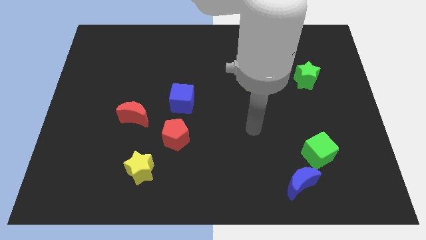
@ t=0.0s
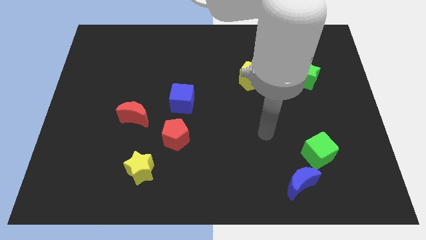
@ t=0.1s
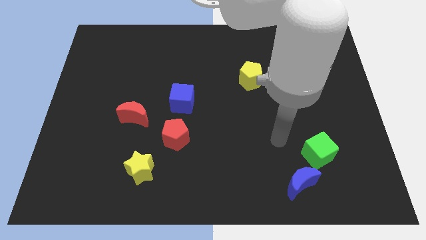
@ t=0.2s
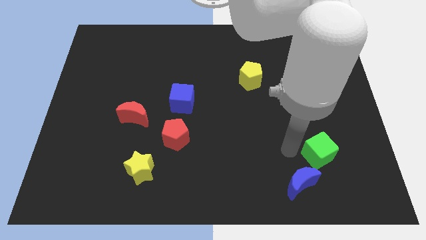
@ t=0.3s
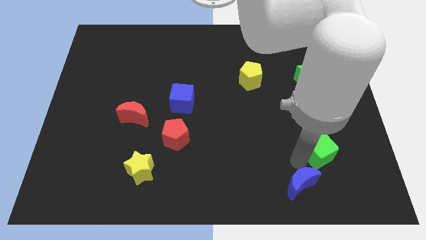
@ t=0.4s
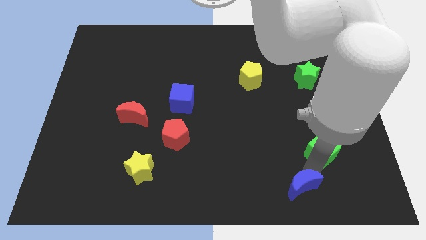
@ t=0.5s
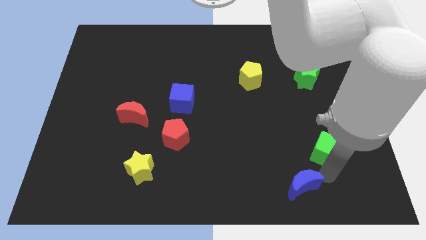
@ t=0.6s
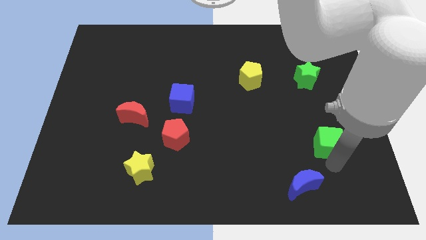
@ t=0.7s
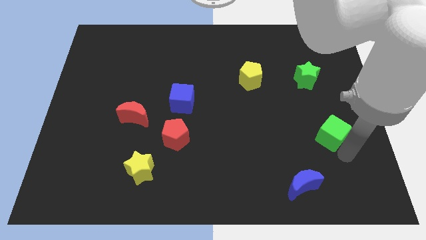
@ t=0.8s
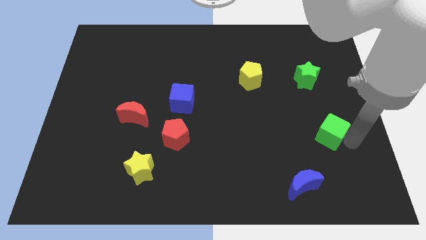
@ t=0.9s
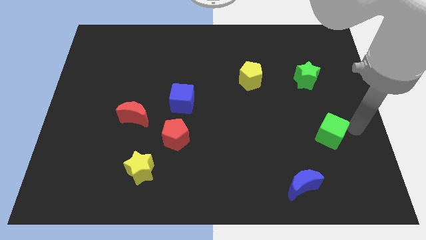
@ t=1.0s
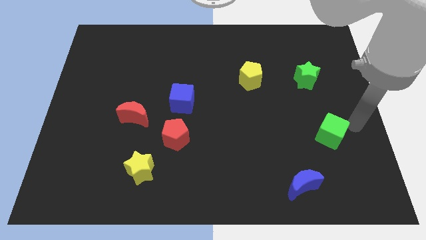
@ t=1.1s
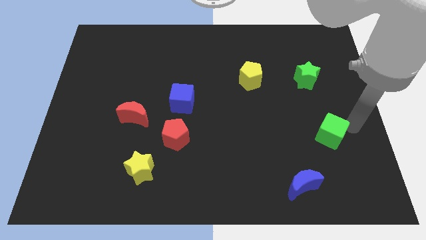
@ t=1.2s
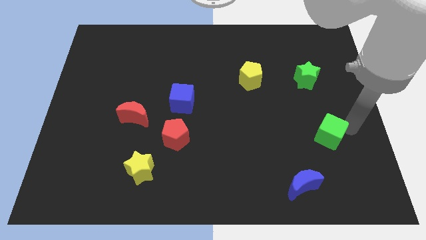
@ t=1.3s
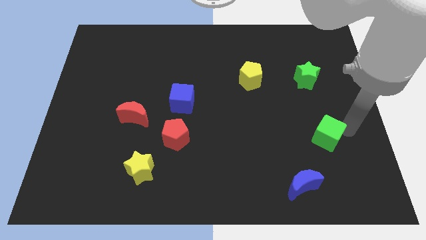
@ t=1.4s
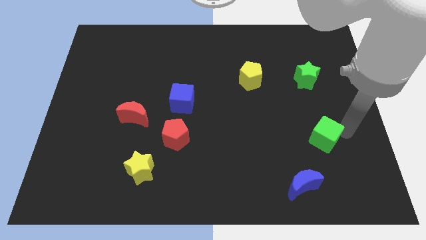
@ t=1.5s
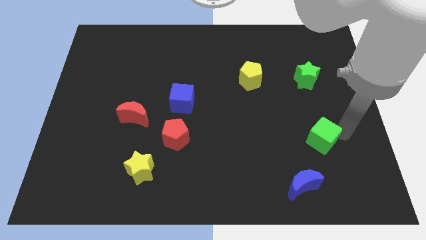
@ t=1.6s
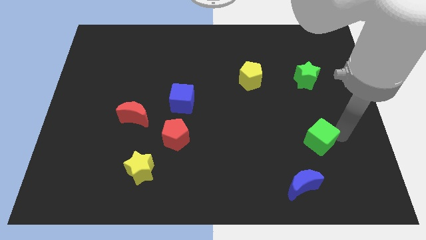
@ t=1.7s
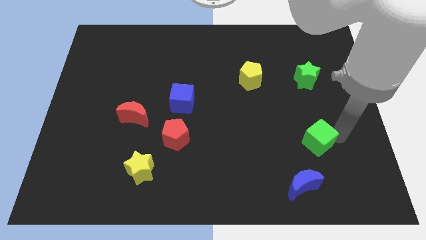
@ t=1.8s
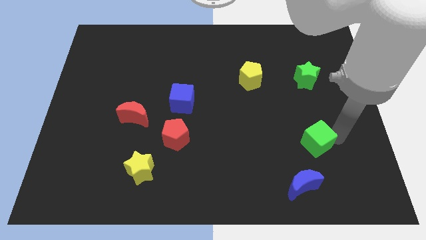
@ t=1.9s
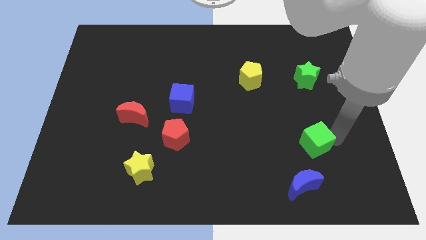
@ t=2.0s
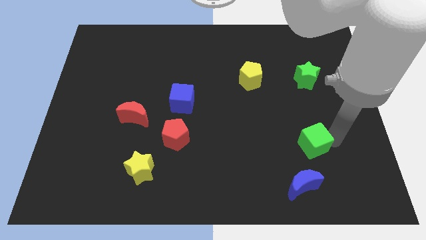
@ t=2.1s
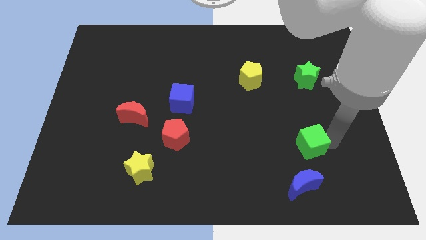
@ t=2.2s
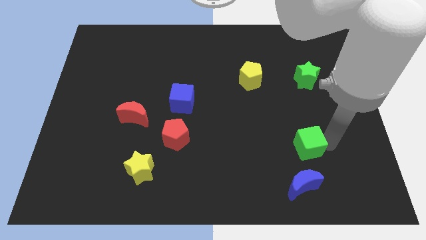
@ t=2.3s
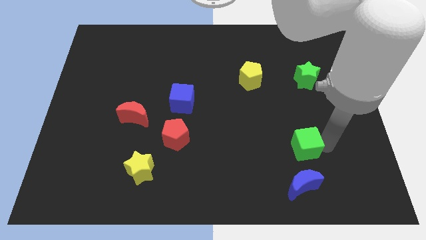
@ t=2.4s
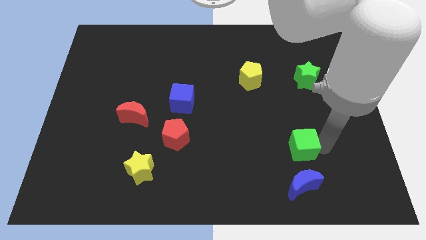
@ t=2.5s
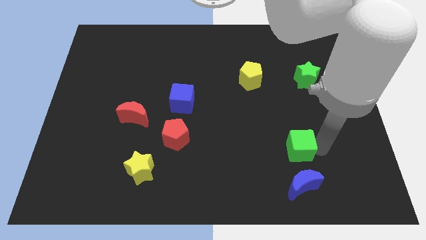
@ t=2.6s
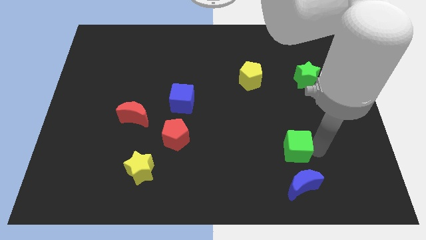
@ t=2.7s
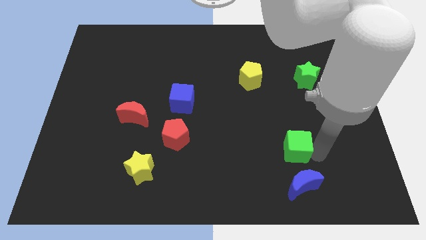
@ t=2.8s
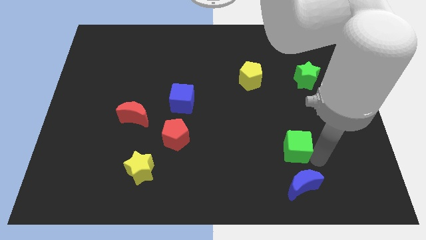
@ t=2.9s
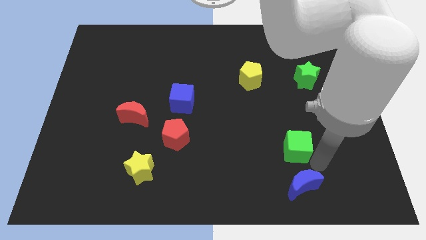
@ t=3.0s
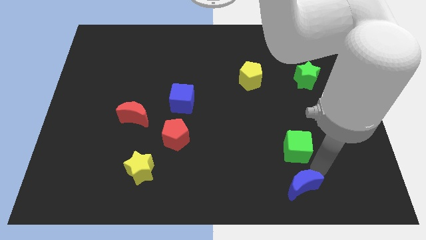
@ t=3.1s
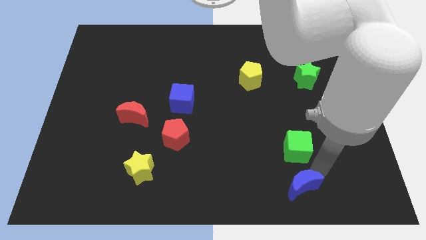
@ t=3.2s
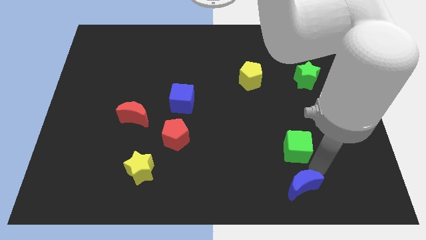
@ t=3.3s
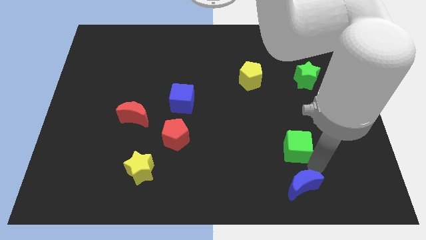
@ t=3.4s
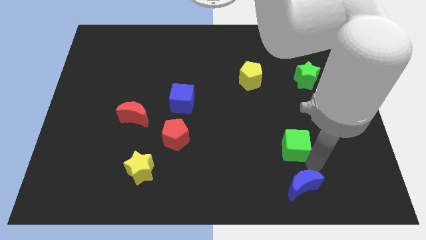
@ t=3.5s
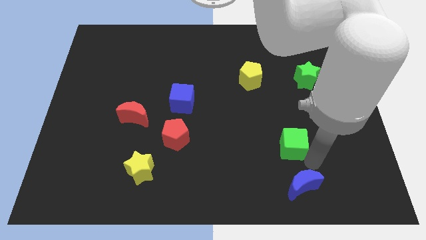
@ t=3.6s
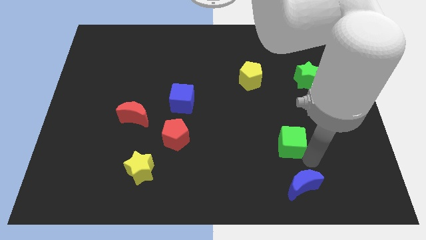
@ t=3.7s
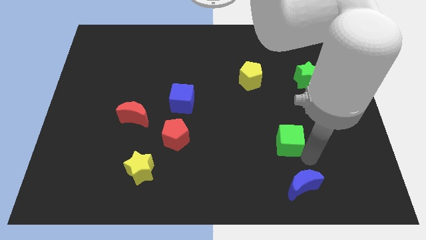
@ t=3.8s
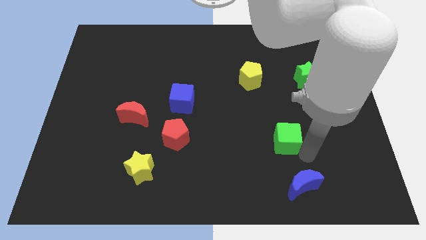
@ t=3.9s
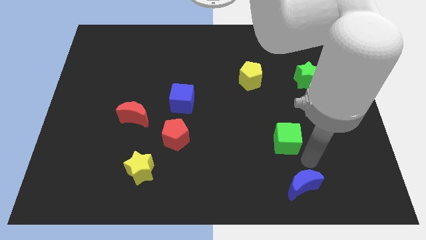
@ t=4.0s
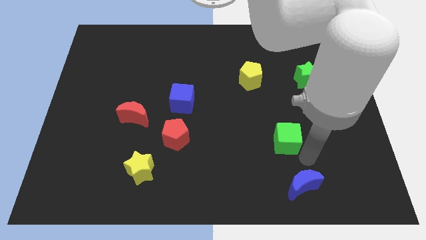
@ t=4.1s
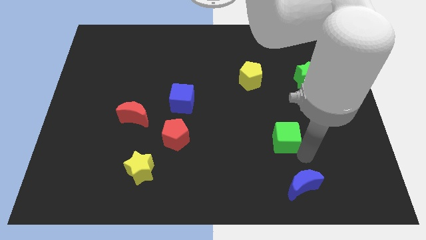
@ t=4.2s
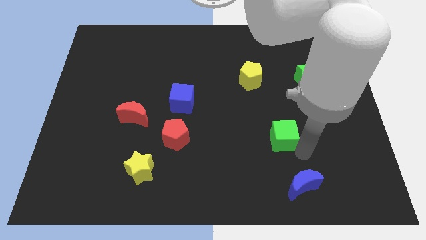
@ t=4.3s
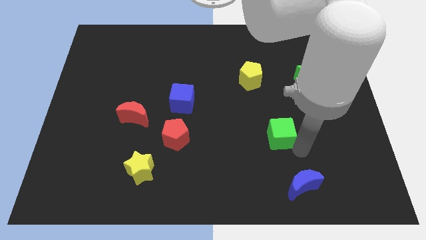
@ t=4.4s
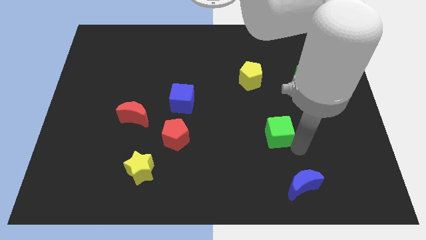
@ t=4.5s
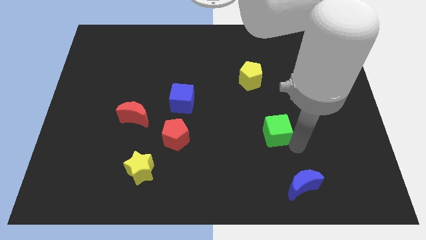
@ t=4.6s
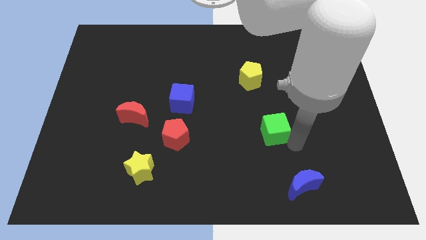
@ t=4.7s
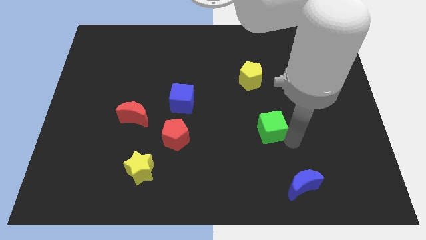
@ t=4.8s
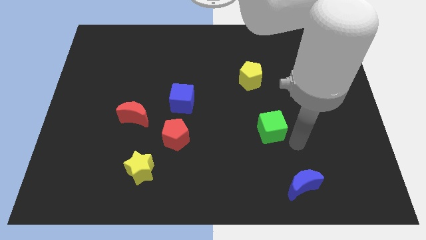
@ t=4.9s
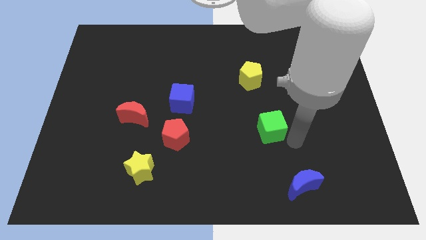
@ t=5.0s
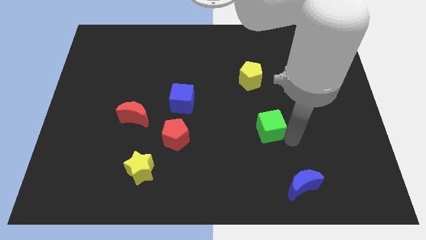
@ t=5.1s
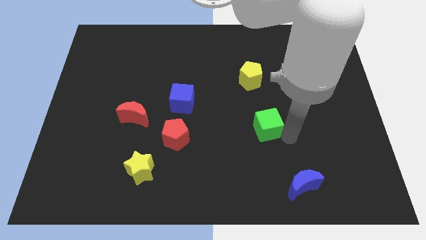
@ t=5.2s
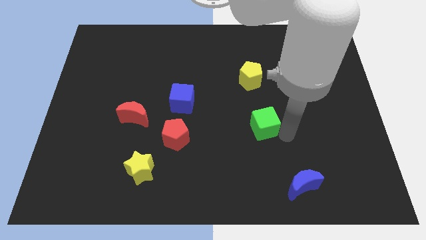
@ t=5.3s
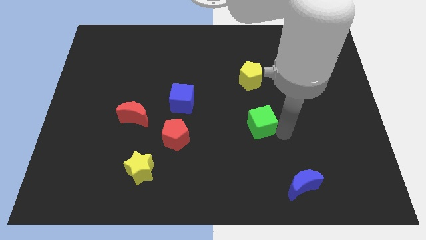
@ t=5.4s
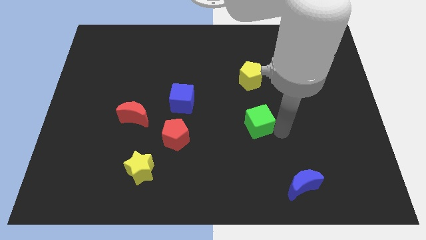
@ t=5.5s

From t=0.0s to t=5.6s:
put the green cube to the center

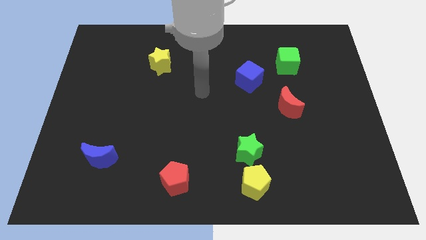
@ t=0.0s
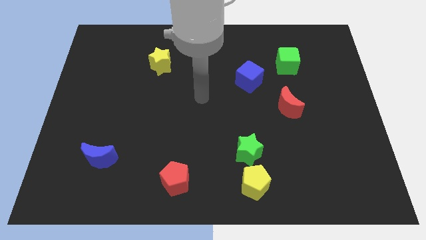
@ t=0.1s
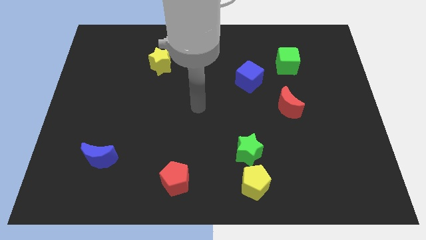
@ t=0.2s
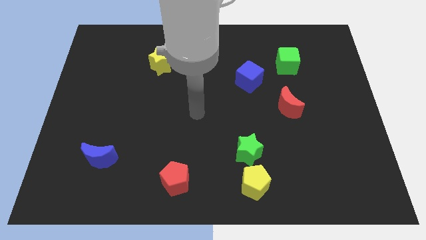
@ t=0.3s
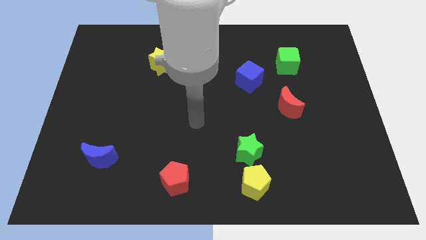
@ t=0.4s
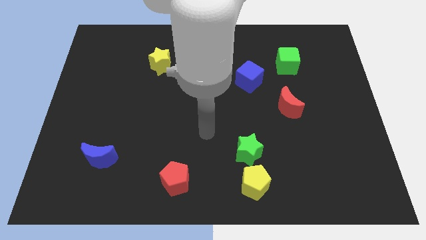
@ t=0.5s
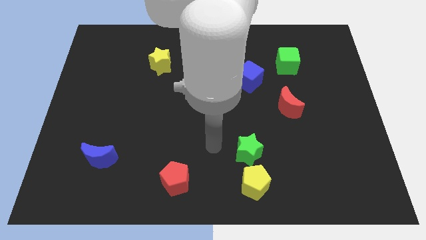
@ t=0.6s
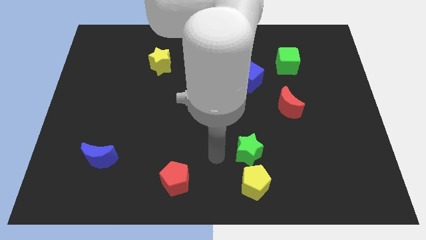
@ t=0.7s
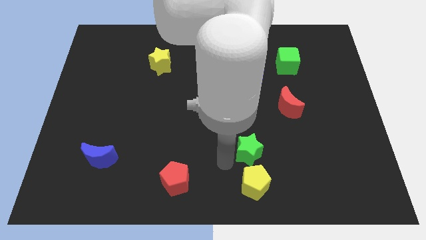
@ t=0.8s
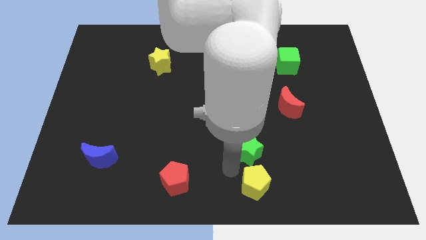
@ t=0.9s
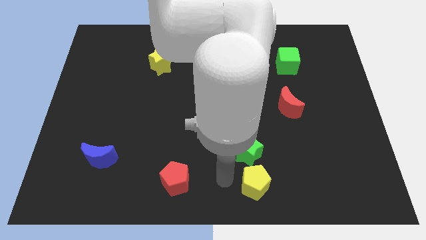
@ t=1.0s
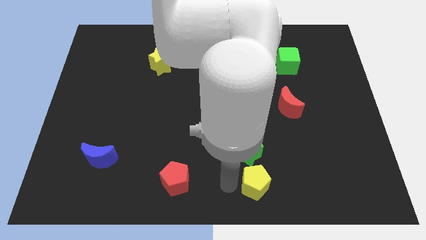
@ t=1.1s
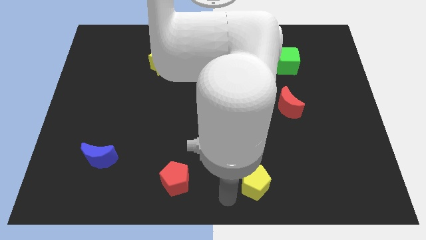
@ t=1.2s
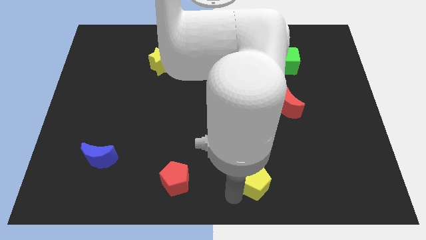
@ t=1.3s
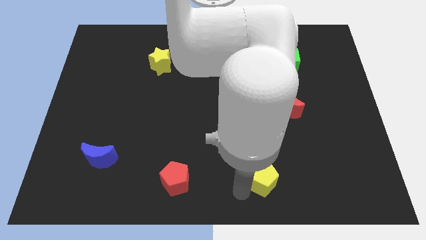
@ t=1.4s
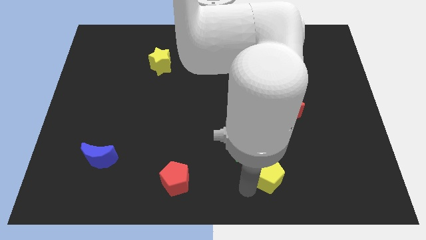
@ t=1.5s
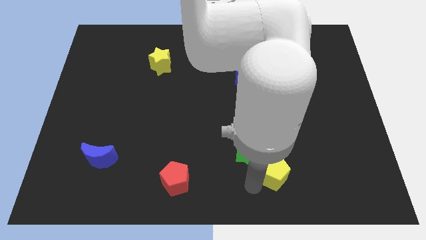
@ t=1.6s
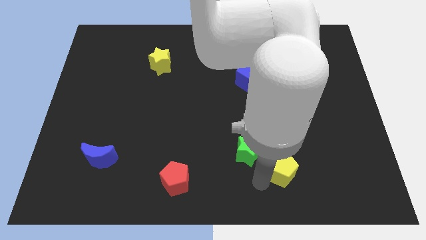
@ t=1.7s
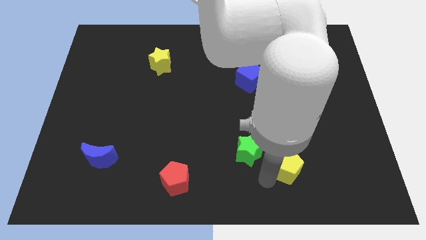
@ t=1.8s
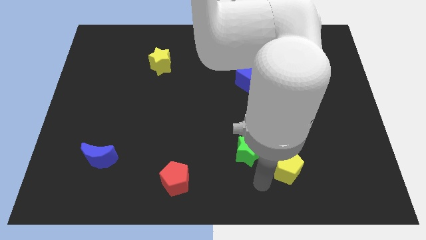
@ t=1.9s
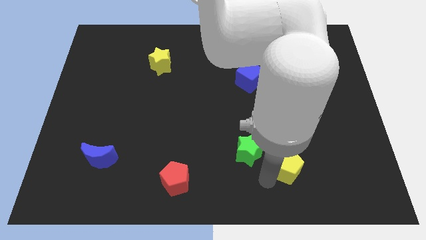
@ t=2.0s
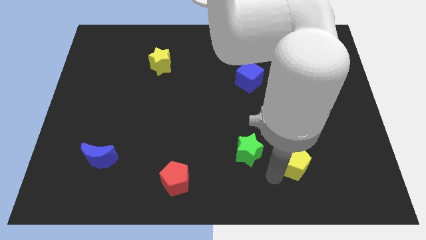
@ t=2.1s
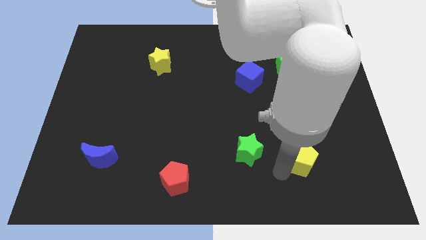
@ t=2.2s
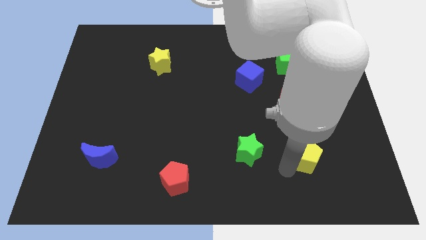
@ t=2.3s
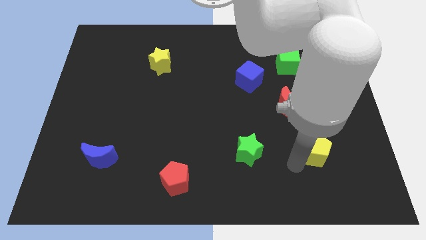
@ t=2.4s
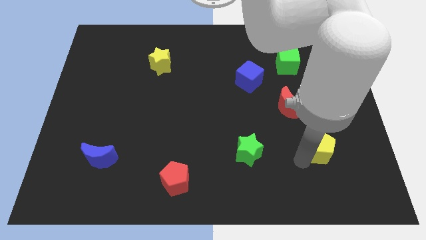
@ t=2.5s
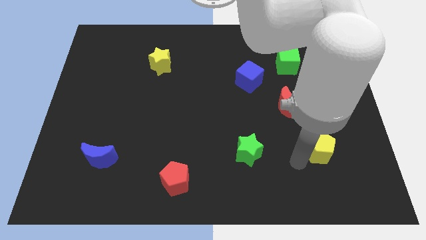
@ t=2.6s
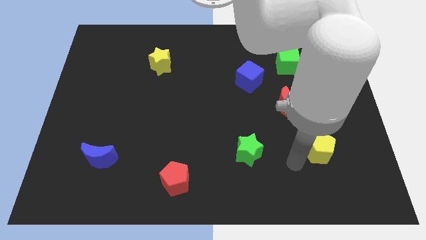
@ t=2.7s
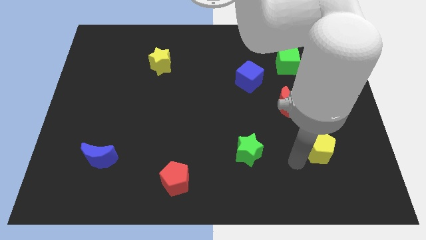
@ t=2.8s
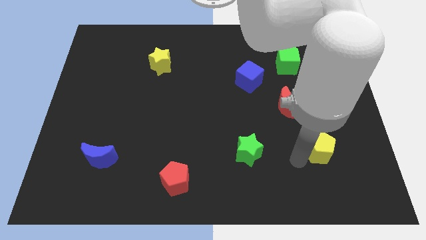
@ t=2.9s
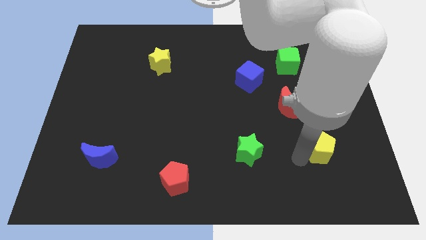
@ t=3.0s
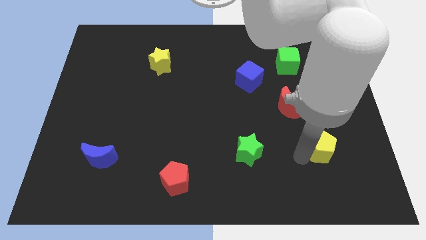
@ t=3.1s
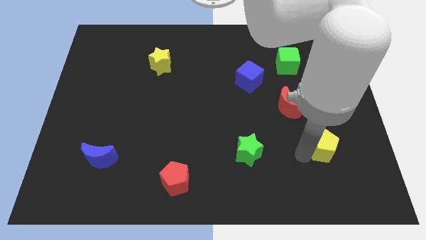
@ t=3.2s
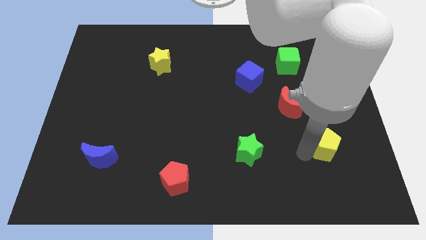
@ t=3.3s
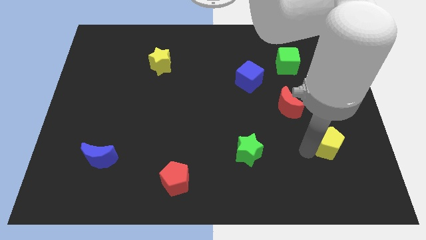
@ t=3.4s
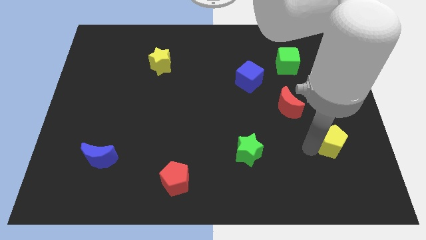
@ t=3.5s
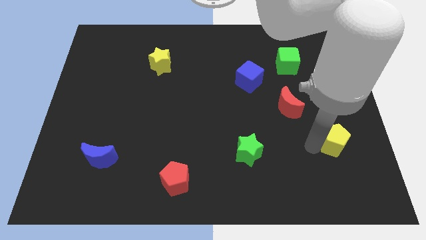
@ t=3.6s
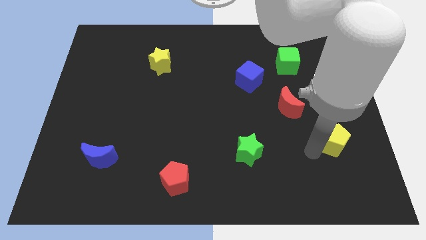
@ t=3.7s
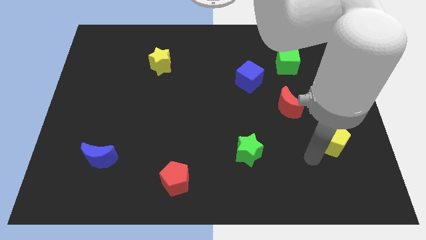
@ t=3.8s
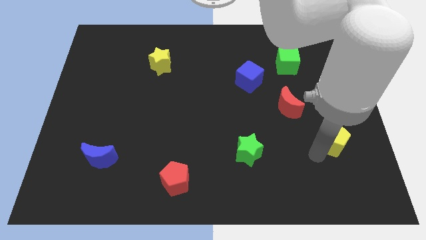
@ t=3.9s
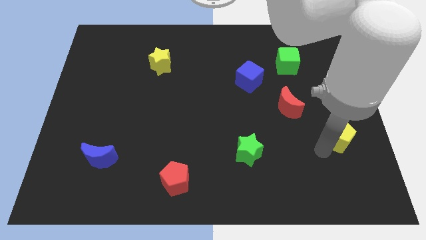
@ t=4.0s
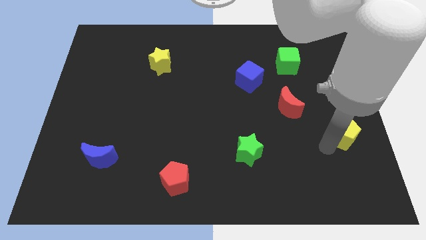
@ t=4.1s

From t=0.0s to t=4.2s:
slide the yellow pentagon to the center right
